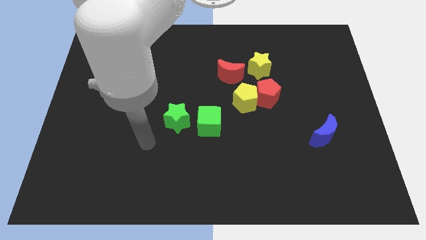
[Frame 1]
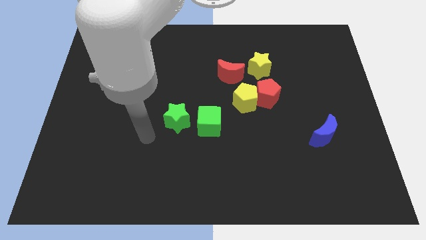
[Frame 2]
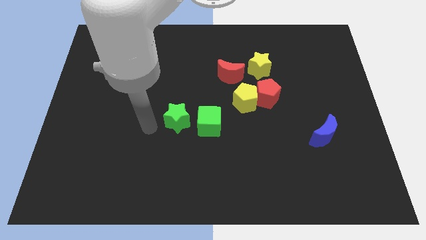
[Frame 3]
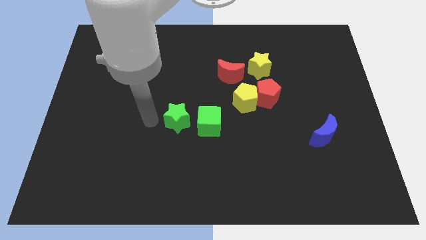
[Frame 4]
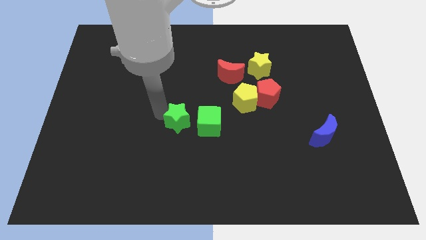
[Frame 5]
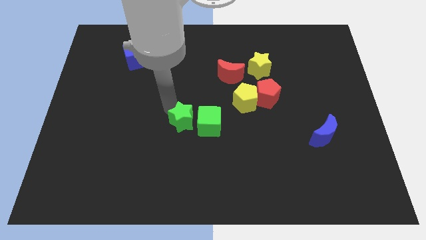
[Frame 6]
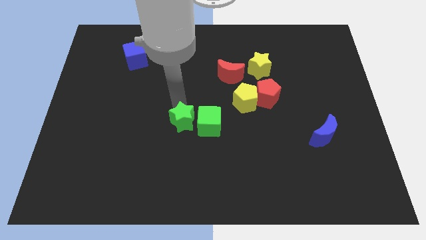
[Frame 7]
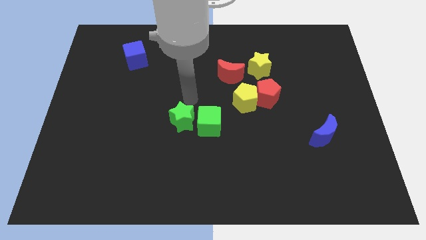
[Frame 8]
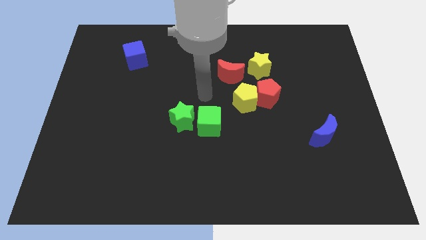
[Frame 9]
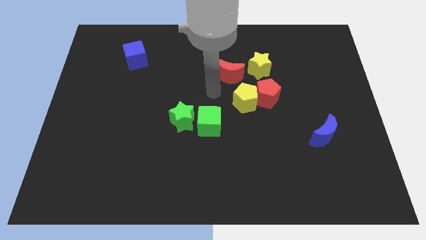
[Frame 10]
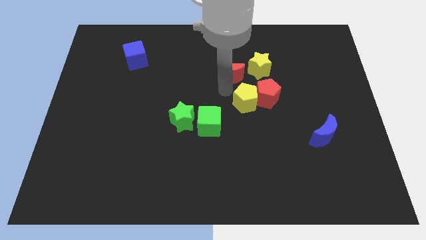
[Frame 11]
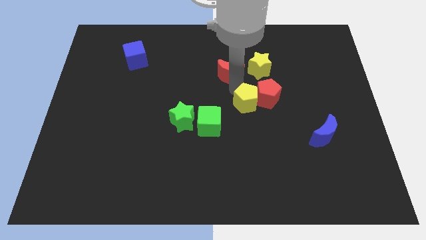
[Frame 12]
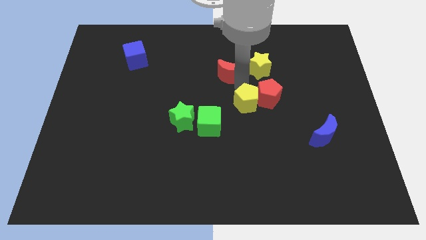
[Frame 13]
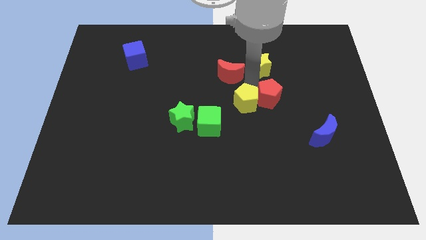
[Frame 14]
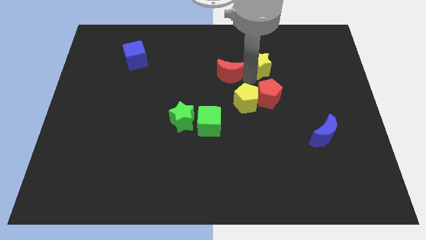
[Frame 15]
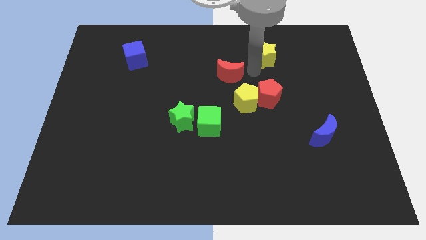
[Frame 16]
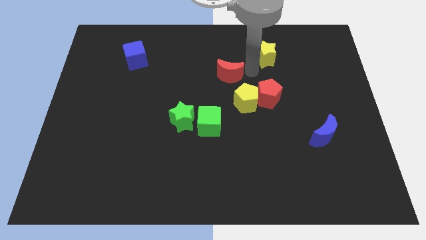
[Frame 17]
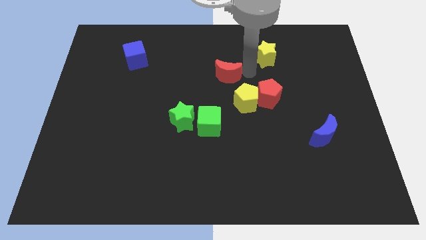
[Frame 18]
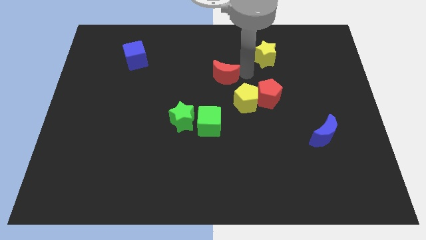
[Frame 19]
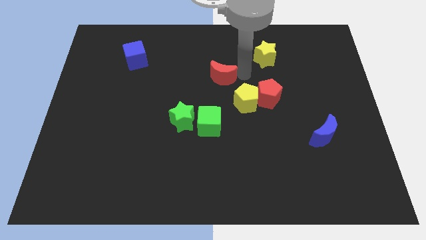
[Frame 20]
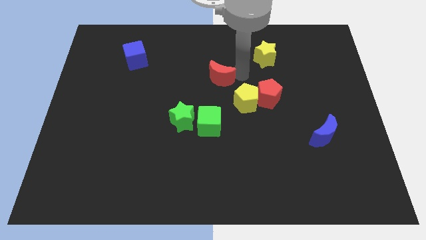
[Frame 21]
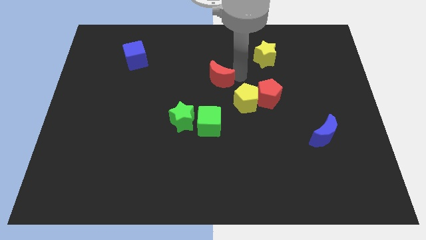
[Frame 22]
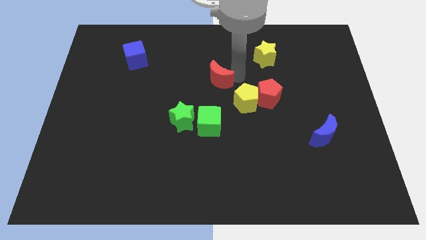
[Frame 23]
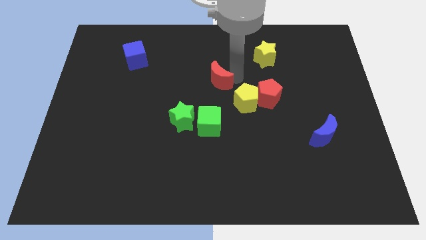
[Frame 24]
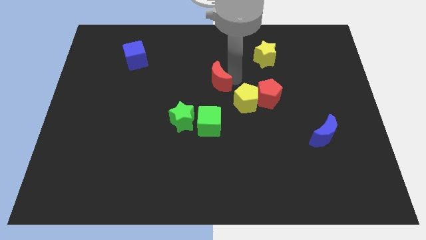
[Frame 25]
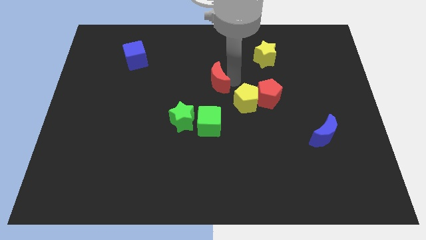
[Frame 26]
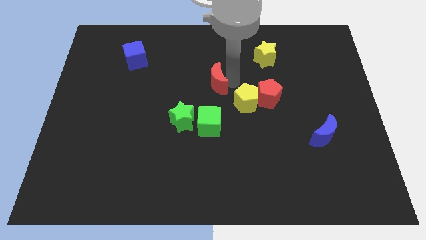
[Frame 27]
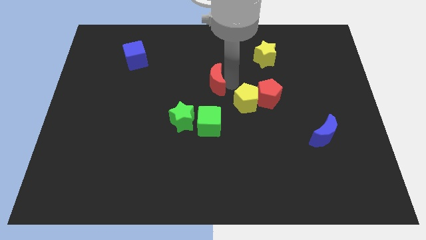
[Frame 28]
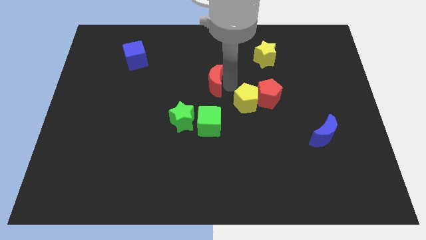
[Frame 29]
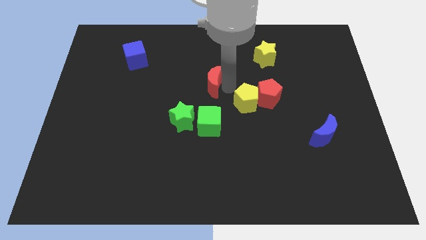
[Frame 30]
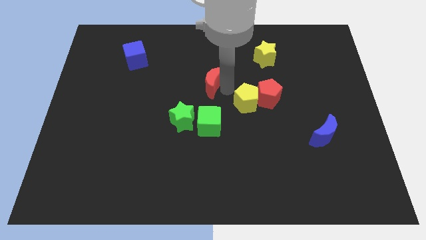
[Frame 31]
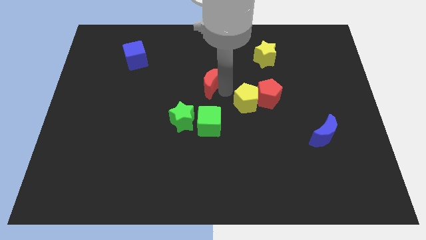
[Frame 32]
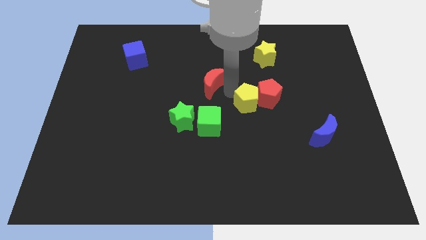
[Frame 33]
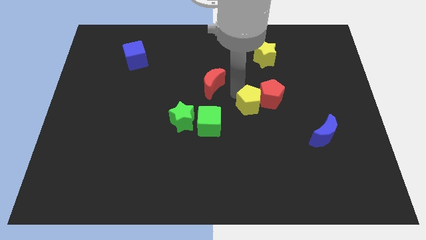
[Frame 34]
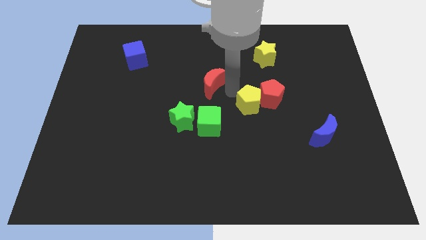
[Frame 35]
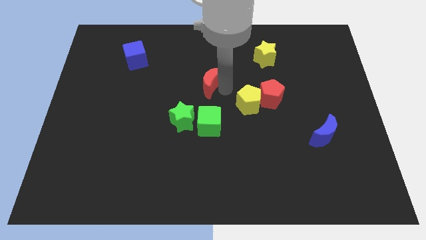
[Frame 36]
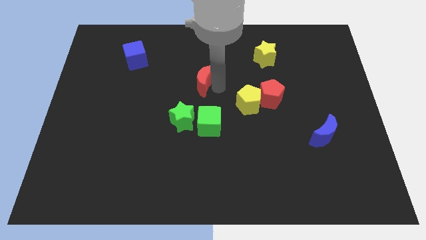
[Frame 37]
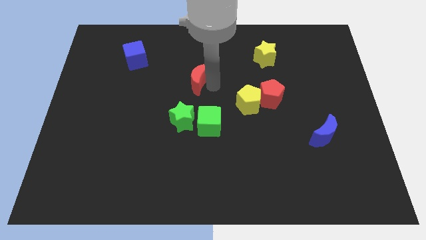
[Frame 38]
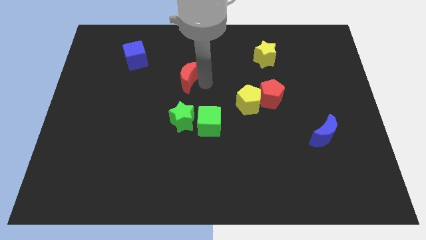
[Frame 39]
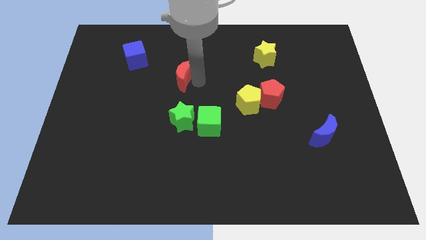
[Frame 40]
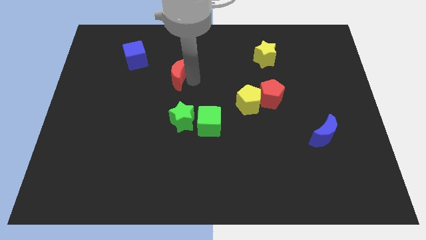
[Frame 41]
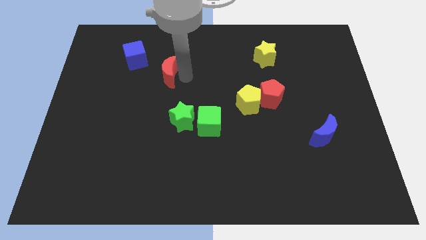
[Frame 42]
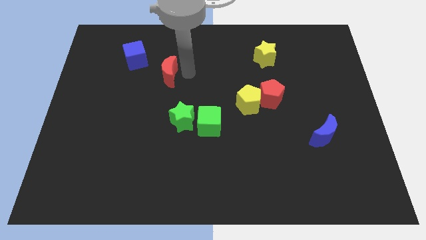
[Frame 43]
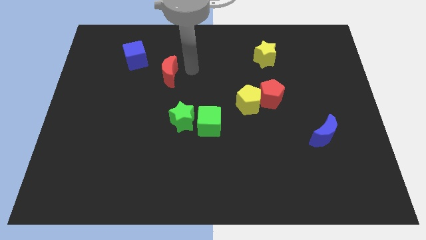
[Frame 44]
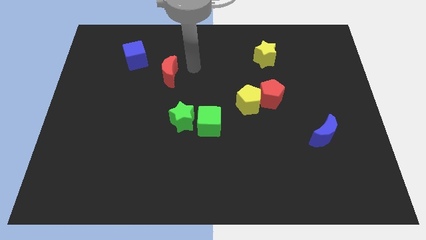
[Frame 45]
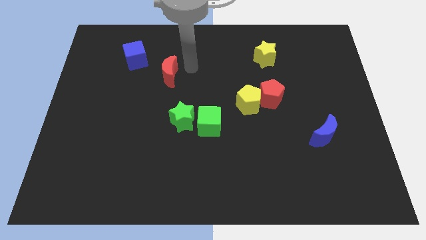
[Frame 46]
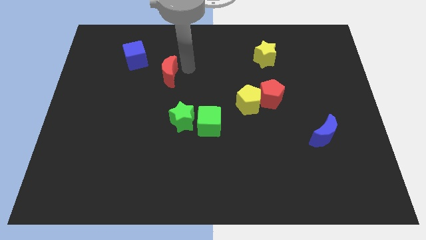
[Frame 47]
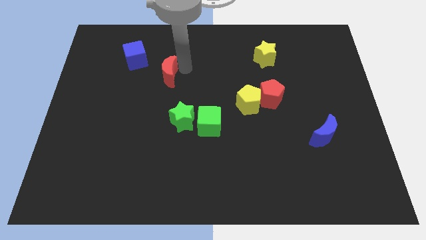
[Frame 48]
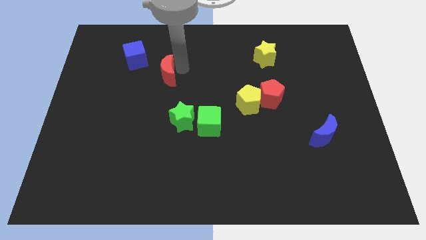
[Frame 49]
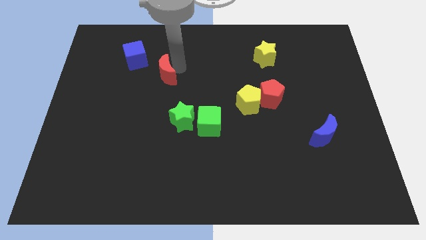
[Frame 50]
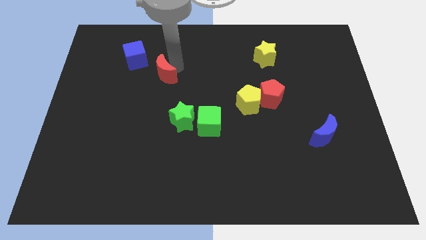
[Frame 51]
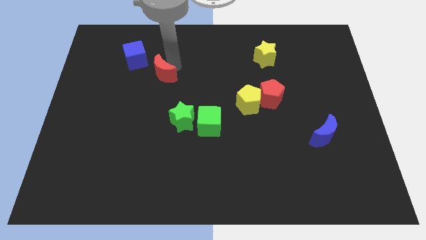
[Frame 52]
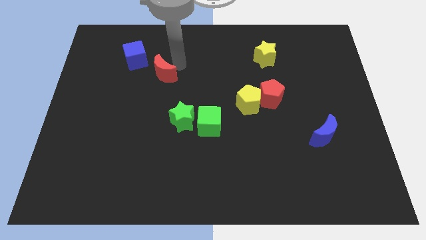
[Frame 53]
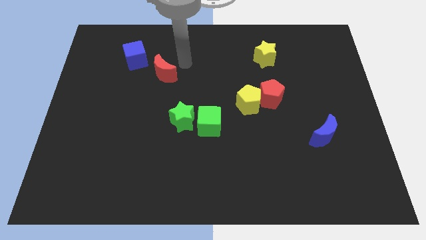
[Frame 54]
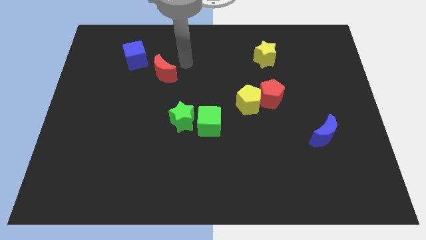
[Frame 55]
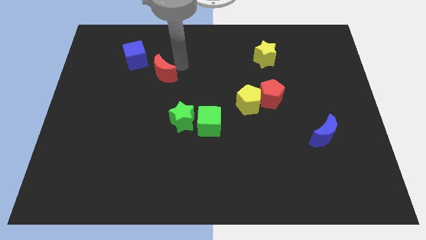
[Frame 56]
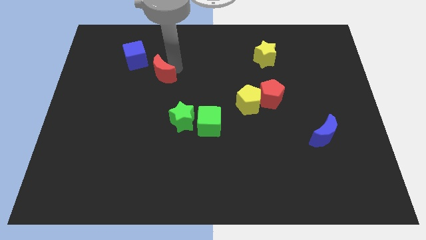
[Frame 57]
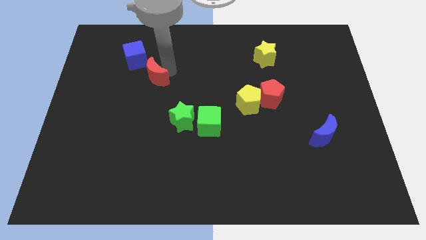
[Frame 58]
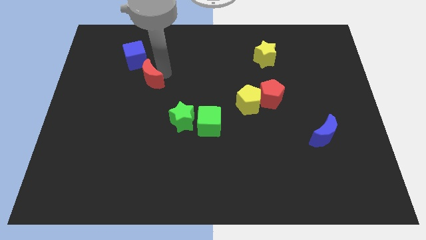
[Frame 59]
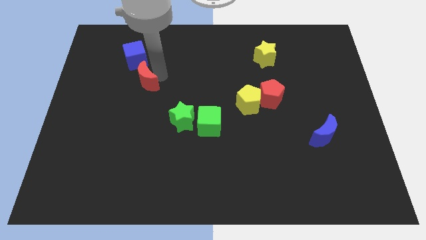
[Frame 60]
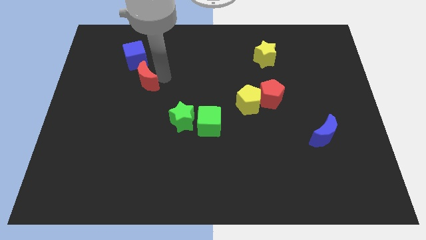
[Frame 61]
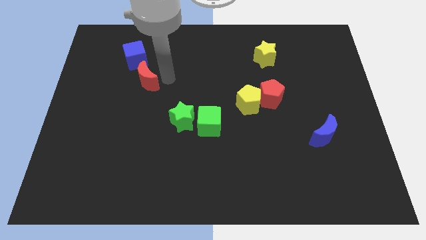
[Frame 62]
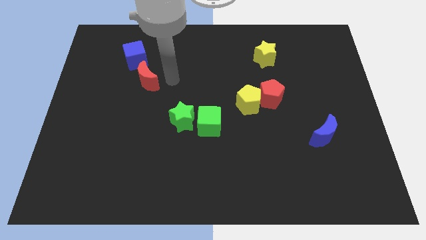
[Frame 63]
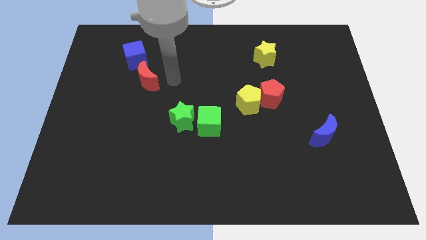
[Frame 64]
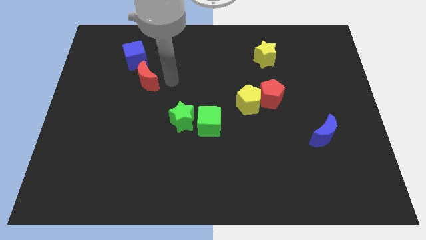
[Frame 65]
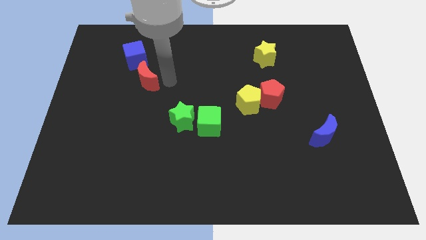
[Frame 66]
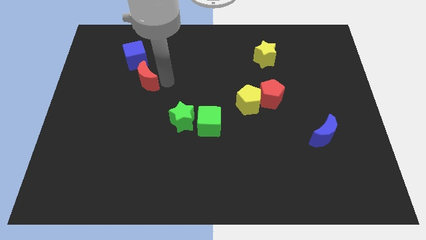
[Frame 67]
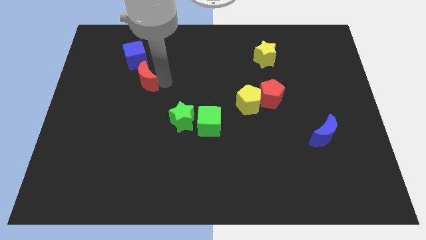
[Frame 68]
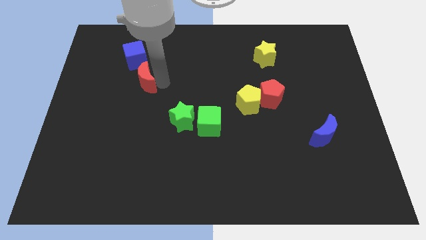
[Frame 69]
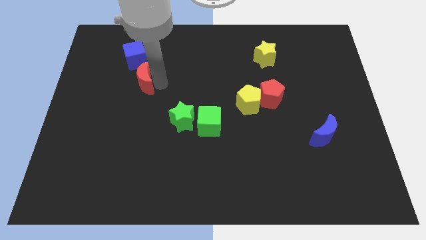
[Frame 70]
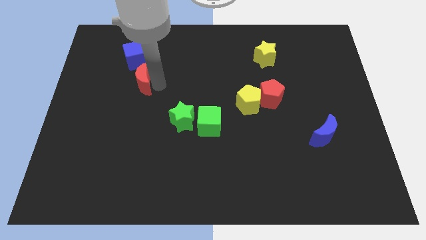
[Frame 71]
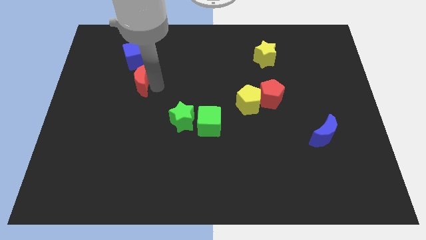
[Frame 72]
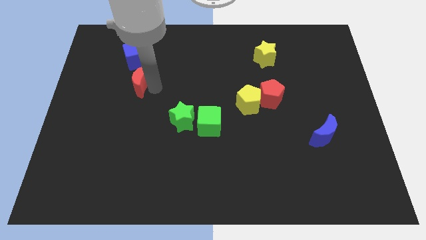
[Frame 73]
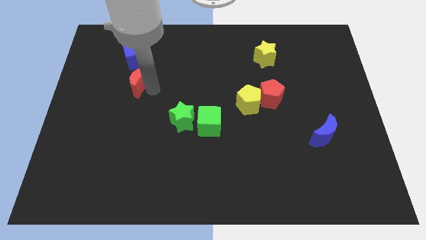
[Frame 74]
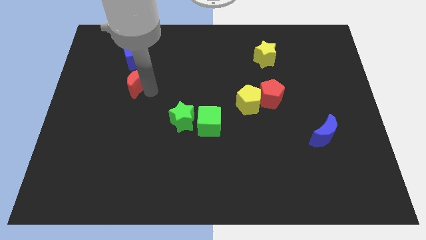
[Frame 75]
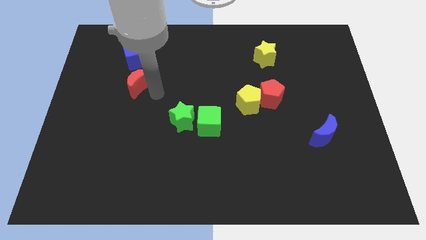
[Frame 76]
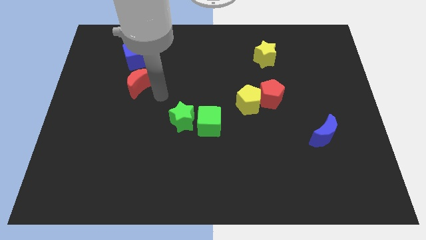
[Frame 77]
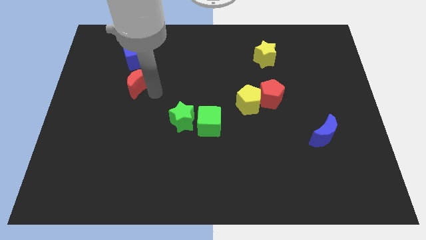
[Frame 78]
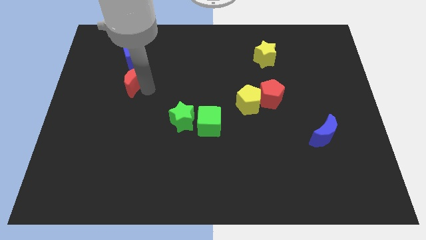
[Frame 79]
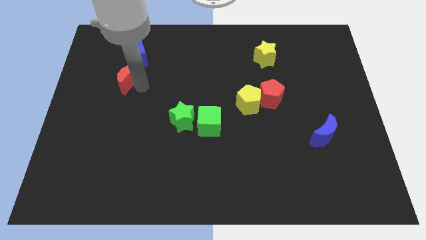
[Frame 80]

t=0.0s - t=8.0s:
move the red moon diagonally down and to the left of the blue cube
